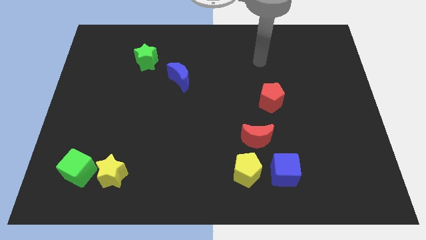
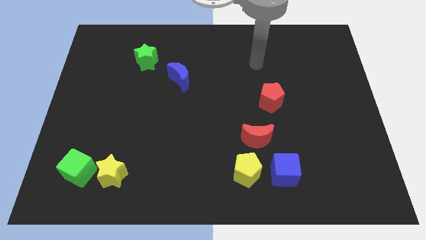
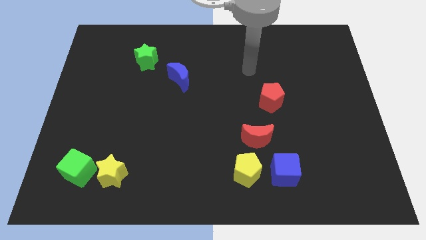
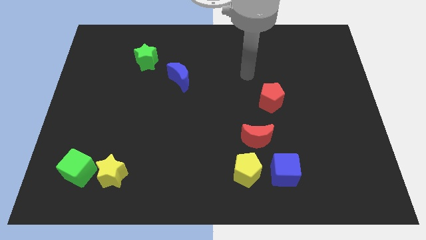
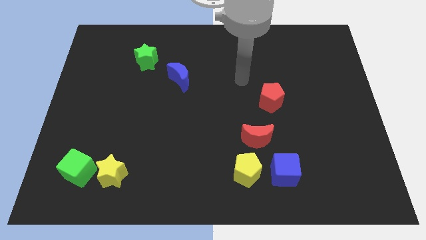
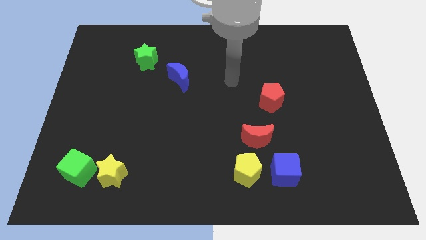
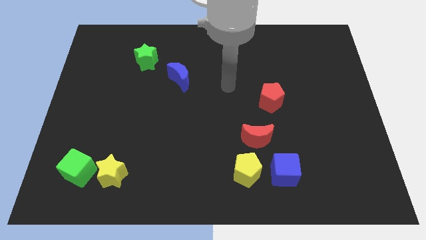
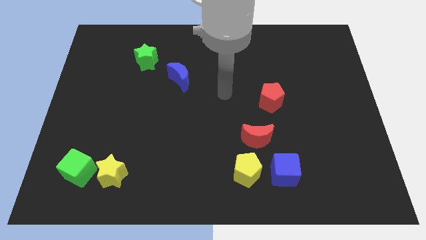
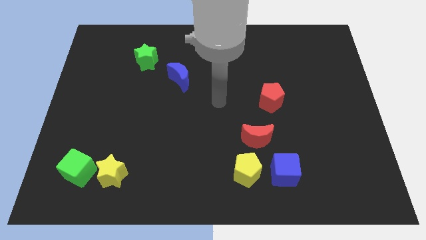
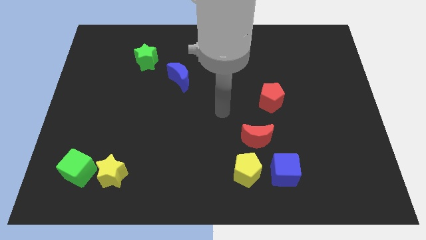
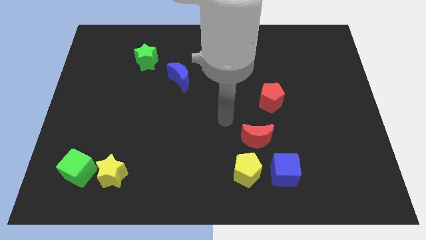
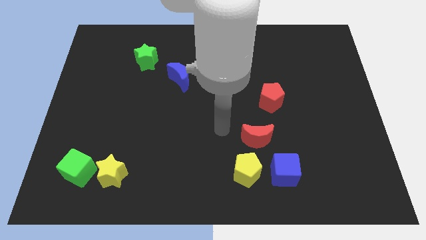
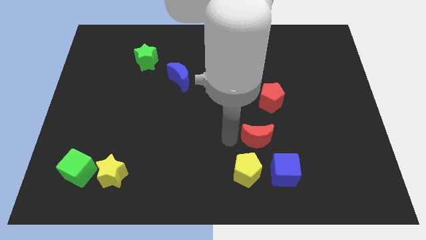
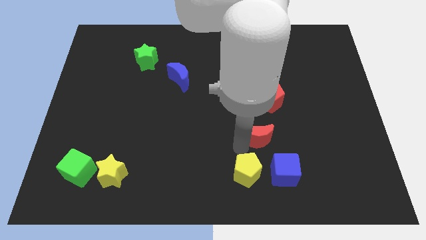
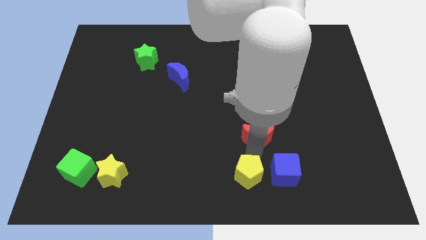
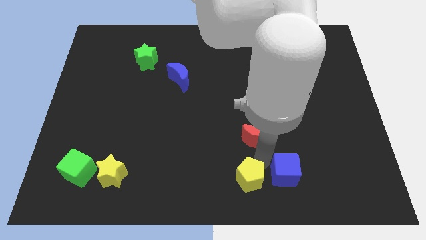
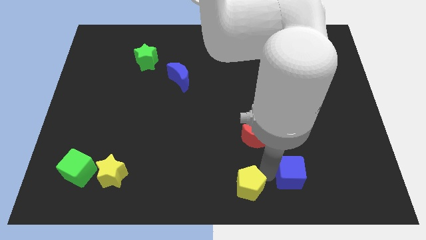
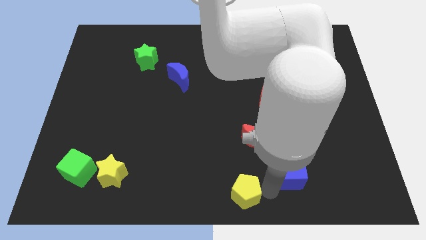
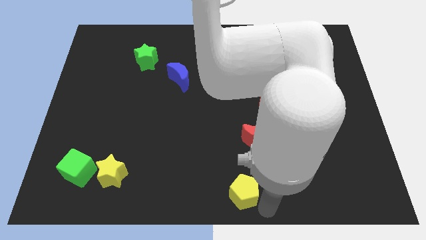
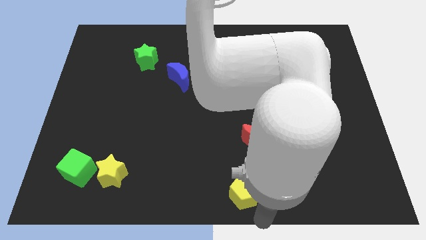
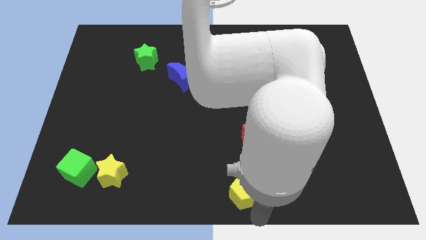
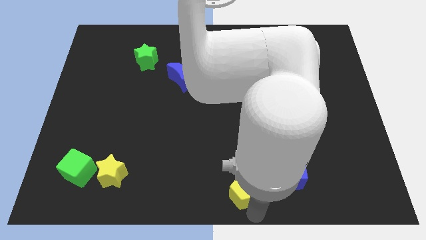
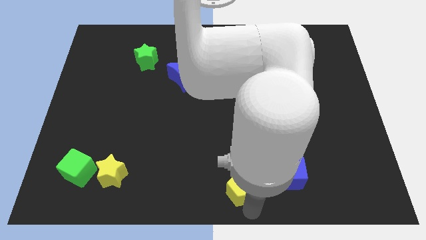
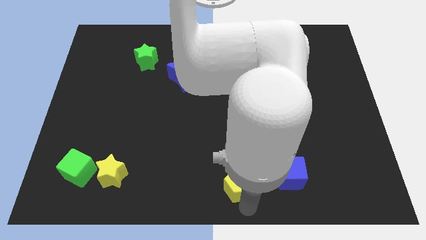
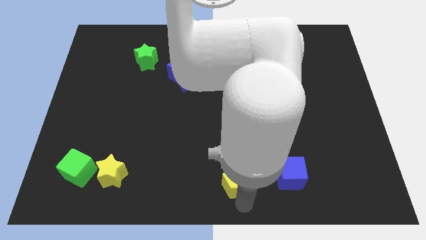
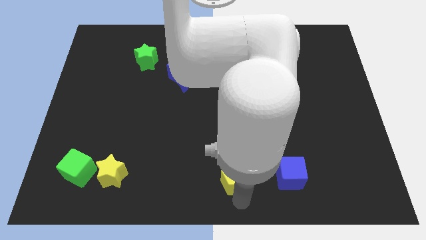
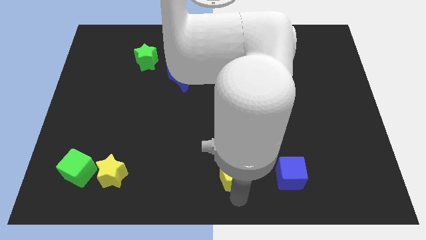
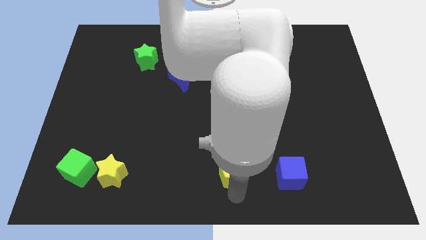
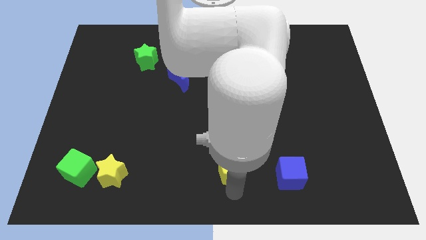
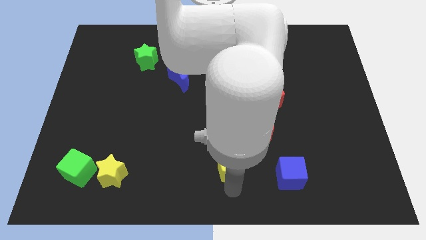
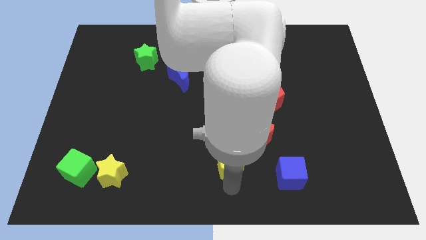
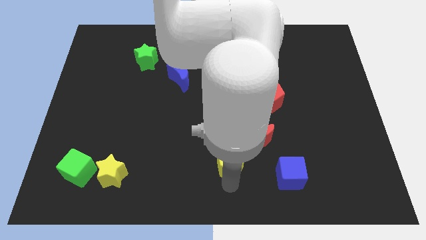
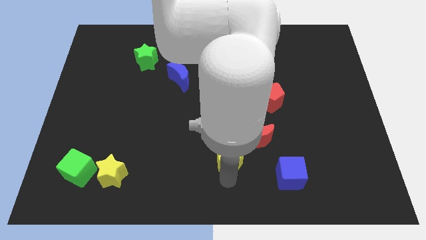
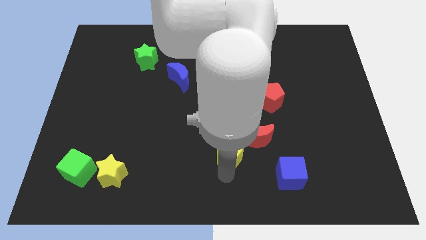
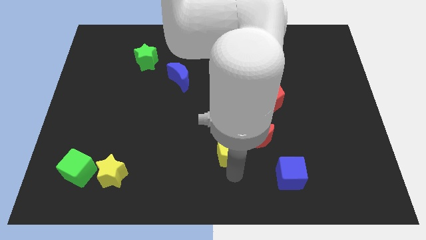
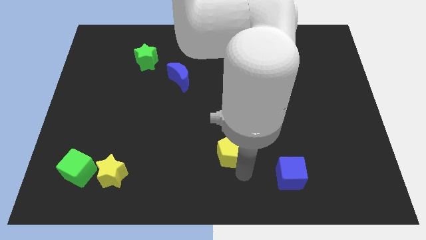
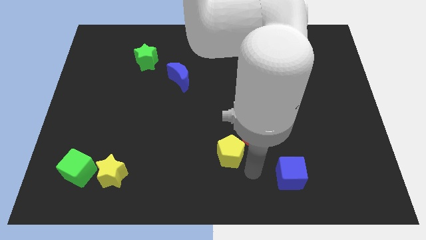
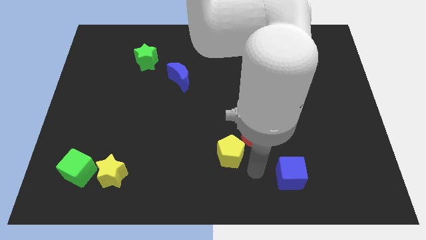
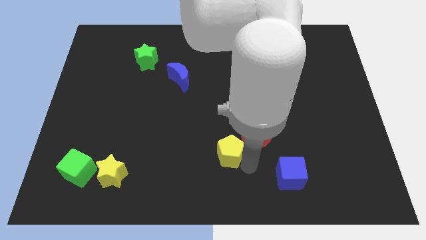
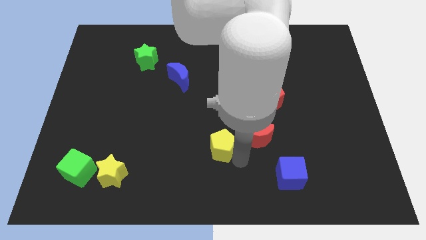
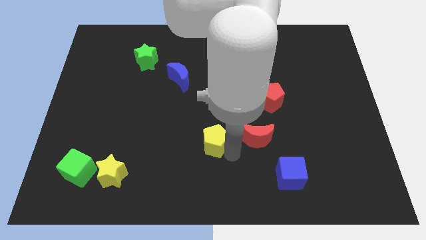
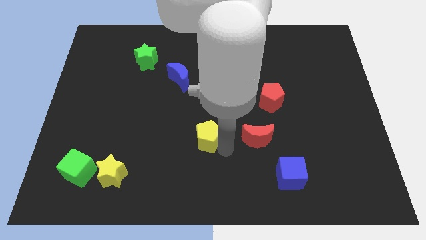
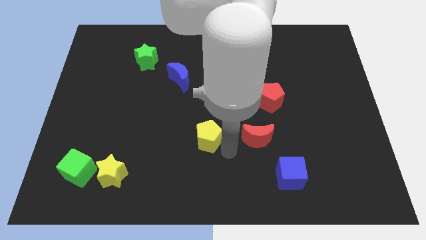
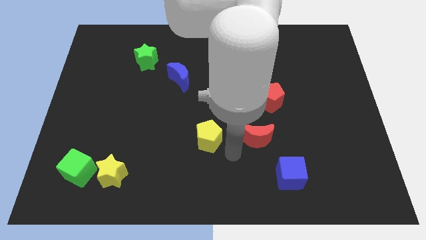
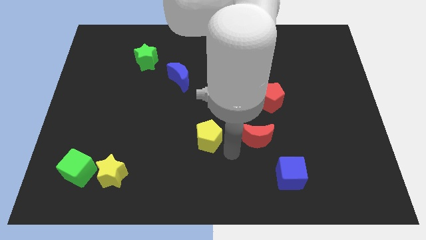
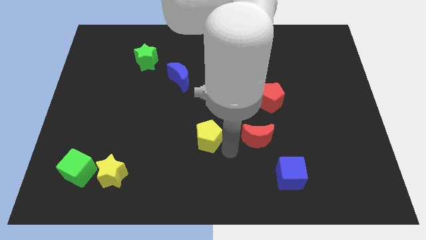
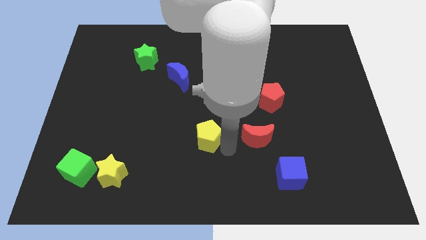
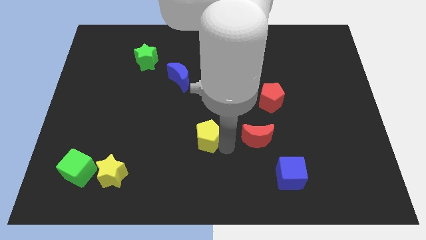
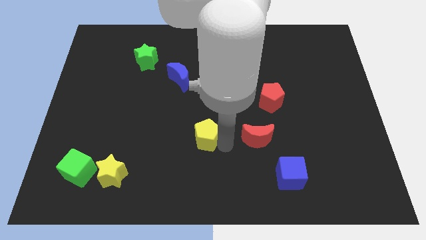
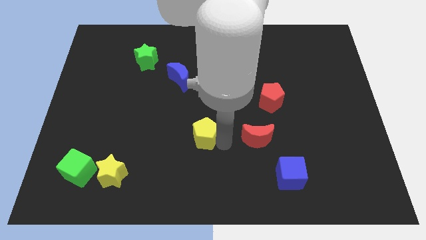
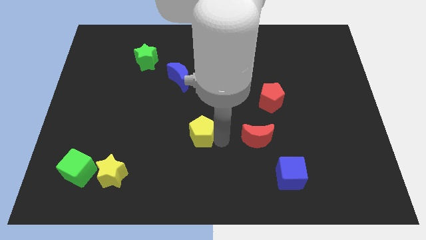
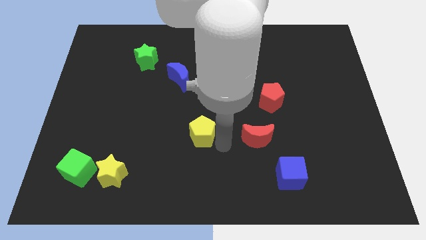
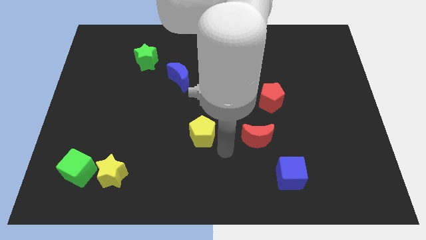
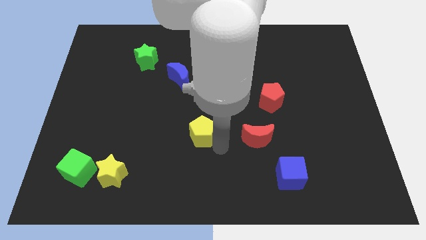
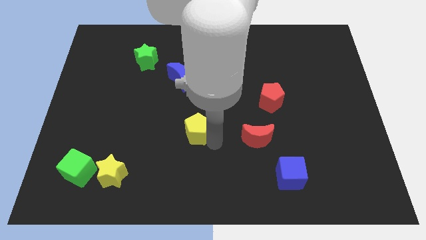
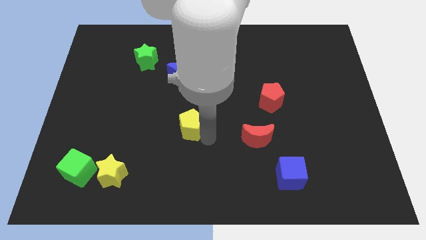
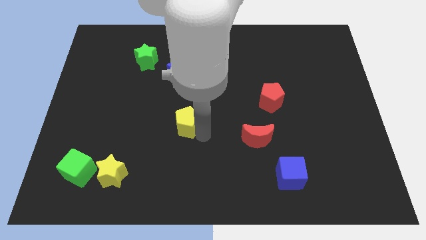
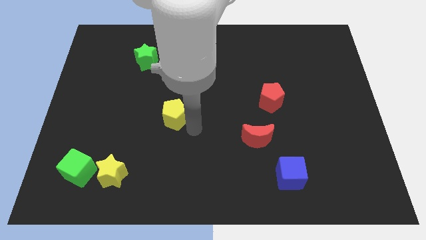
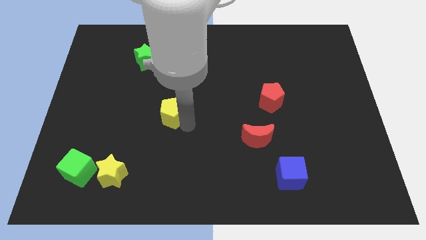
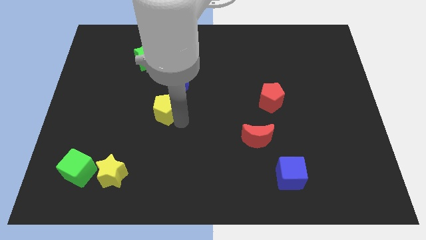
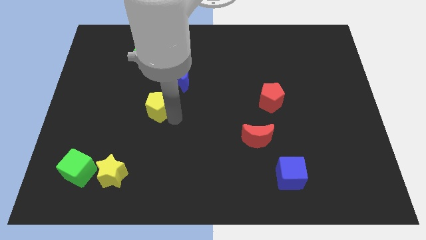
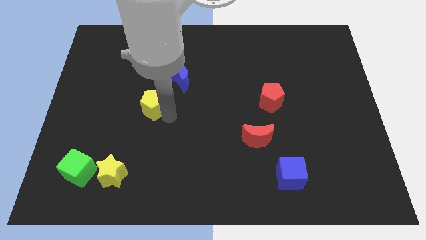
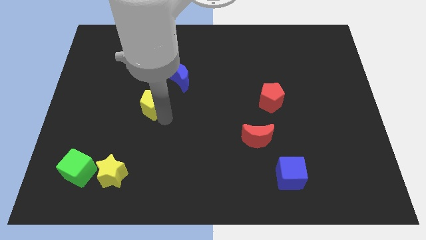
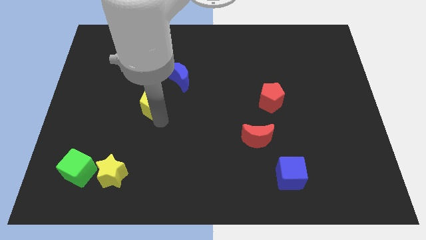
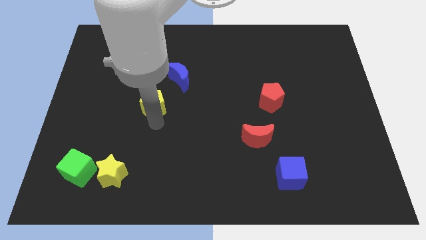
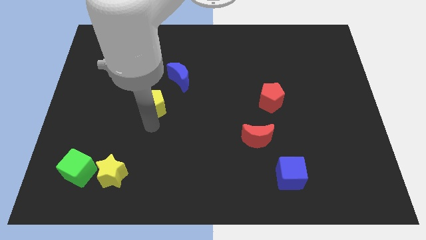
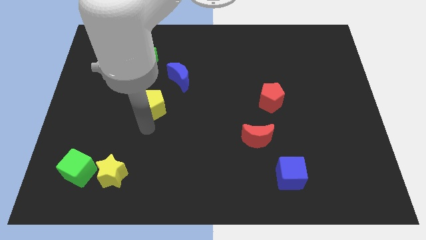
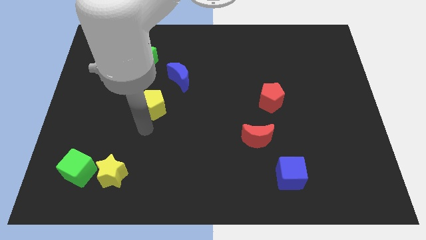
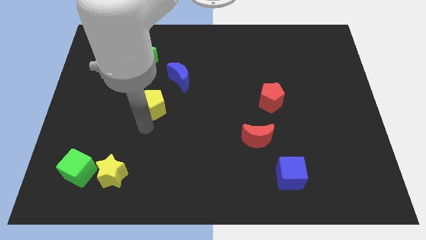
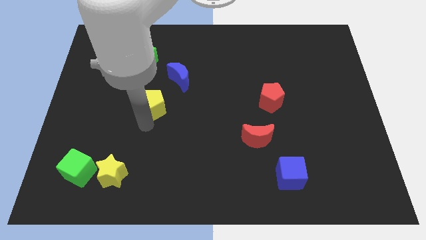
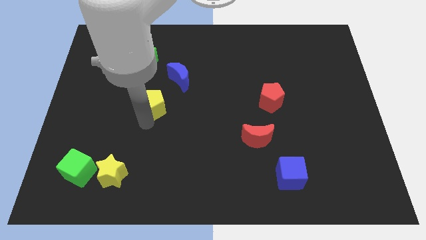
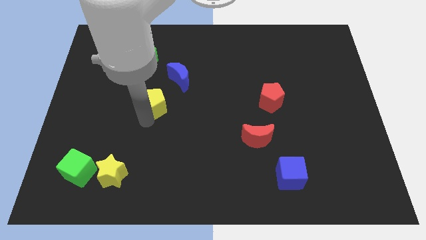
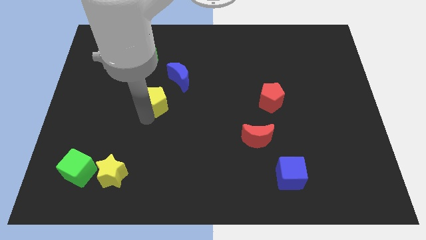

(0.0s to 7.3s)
push the yellow pentagon to the bottom of the green star

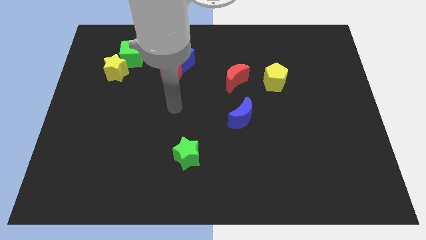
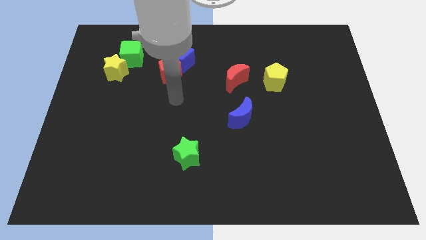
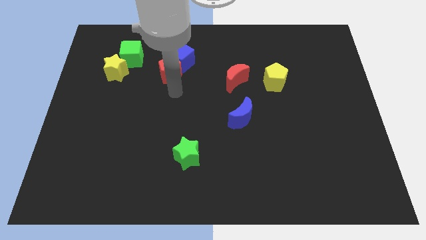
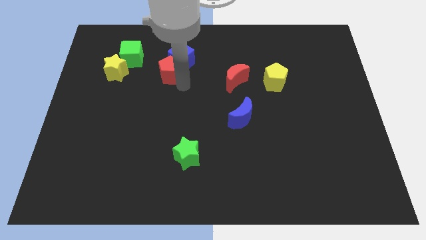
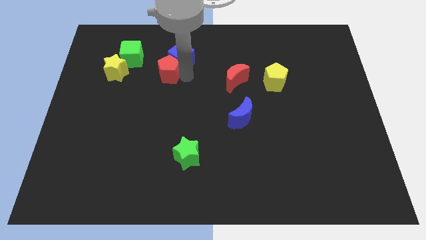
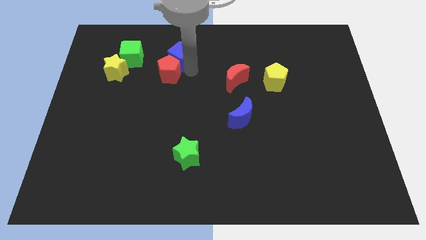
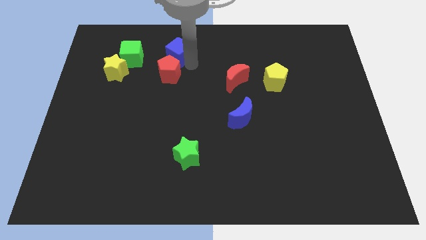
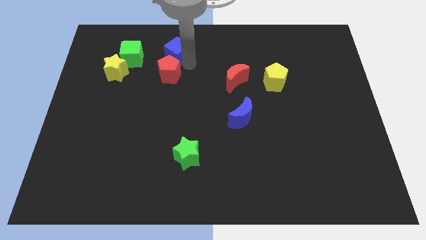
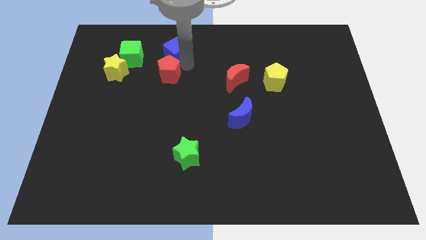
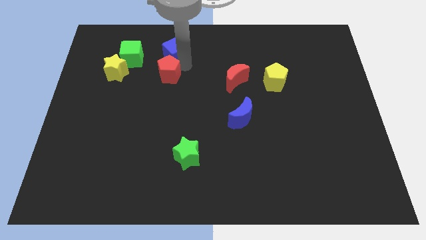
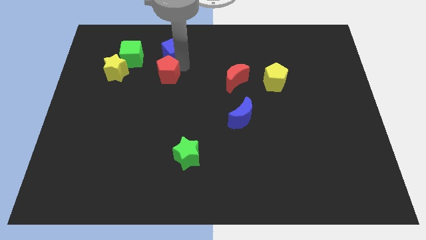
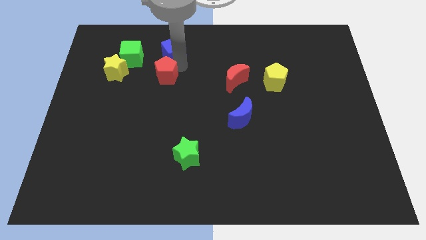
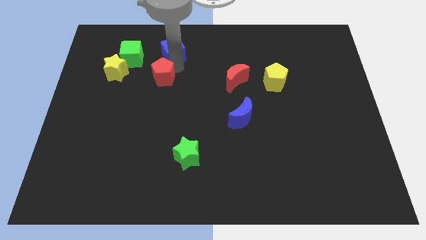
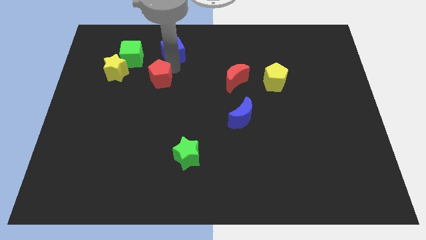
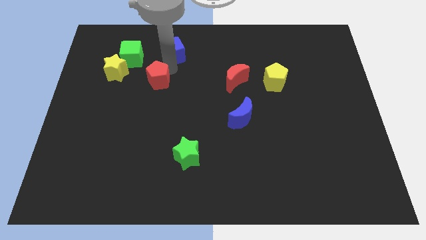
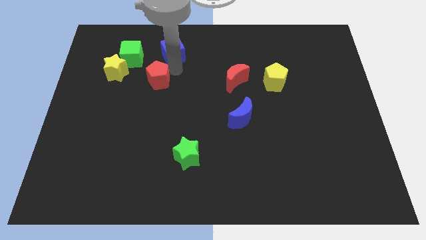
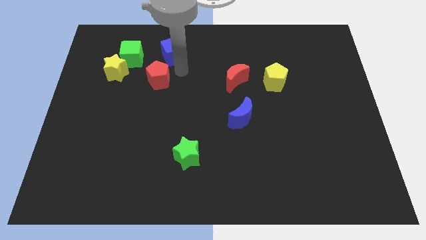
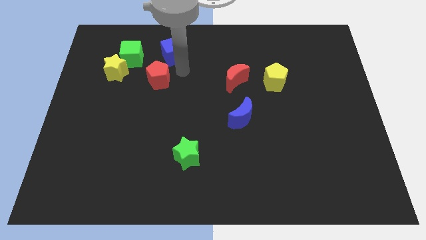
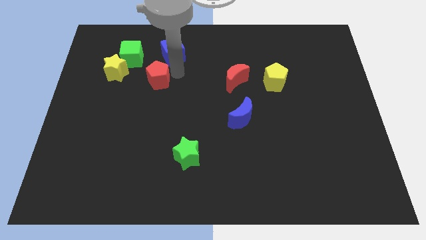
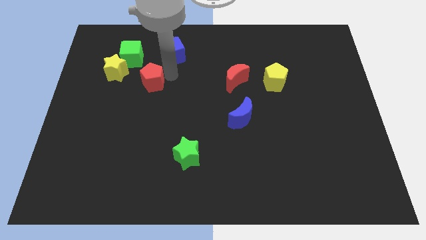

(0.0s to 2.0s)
move the red pentagon to the bottom right side of the yellow star
